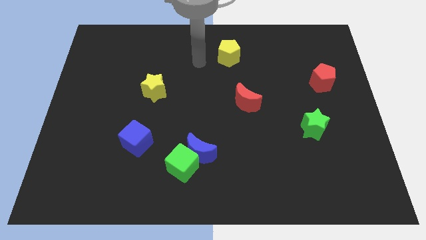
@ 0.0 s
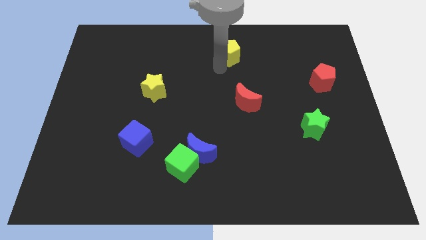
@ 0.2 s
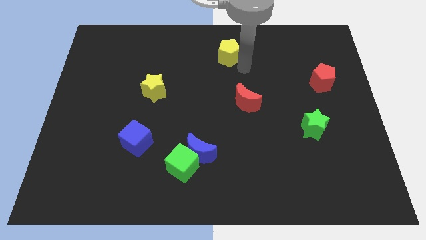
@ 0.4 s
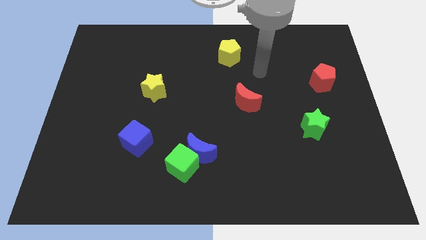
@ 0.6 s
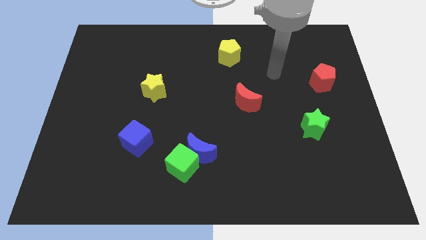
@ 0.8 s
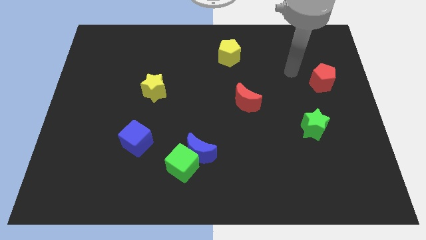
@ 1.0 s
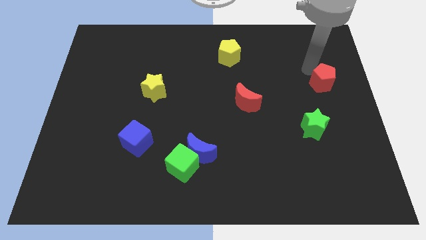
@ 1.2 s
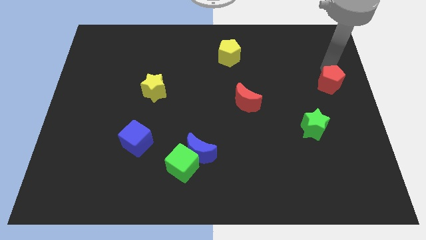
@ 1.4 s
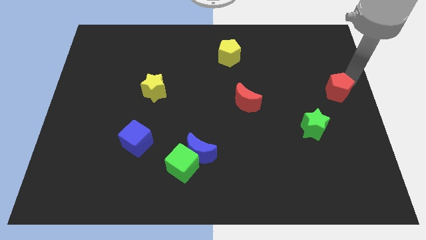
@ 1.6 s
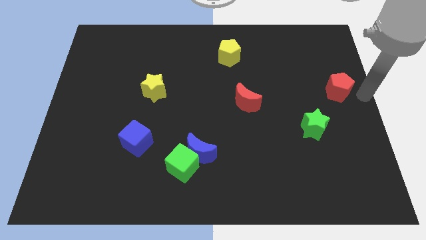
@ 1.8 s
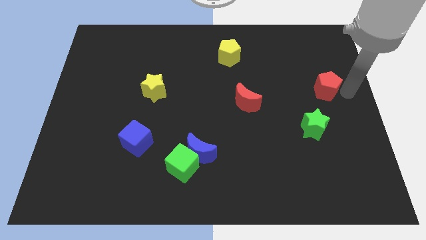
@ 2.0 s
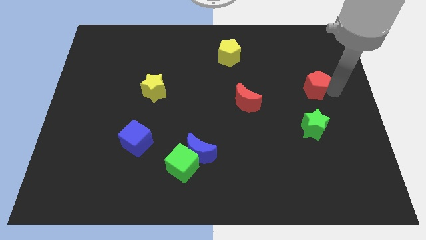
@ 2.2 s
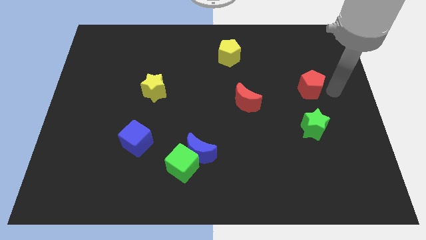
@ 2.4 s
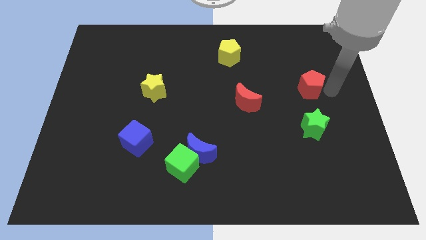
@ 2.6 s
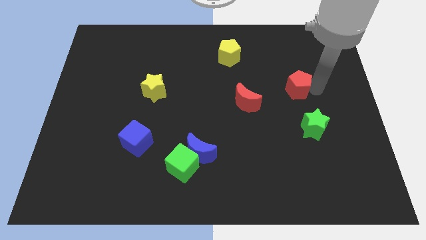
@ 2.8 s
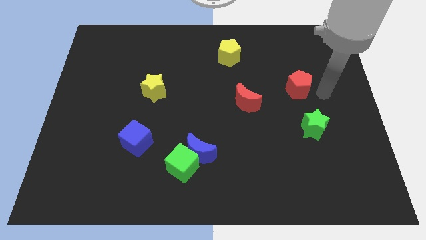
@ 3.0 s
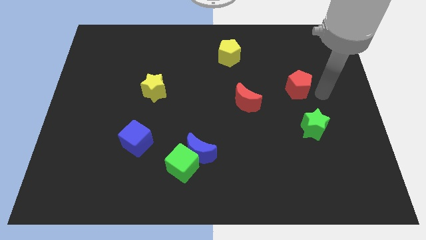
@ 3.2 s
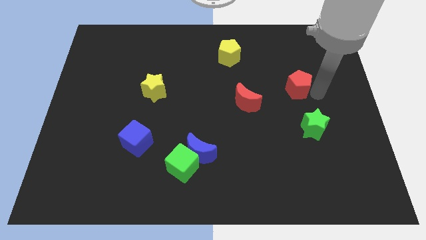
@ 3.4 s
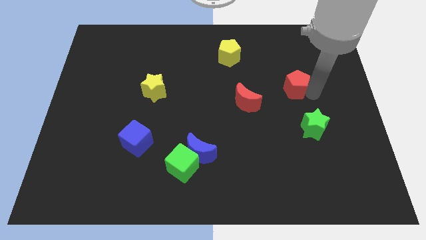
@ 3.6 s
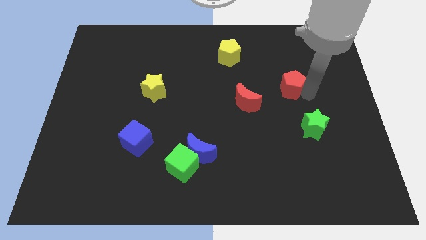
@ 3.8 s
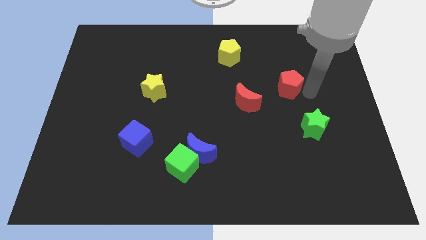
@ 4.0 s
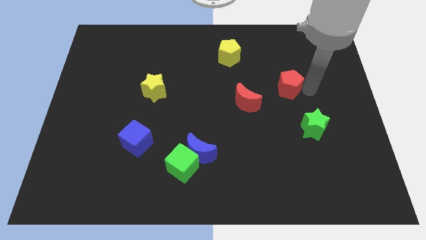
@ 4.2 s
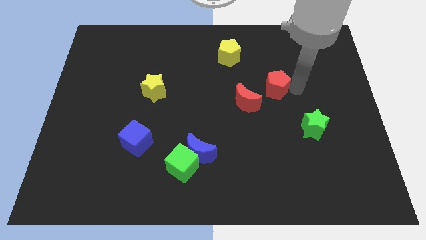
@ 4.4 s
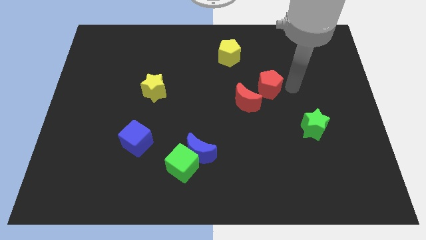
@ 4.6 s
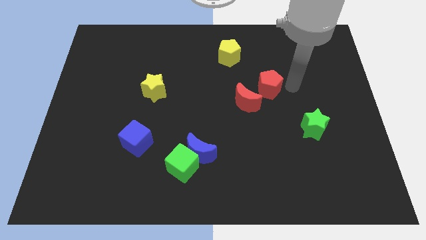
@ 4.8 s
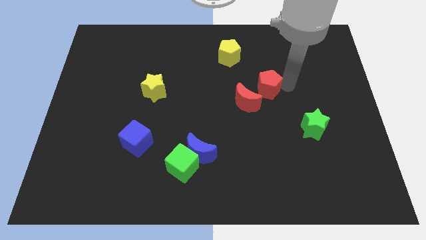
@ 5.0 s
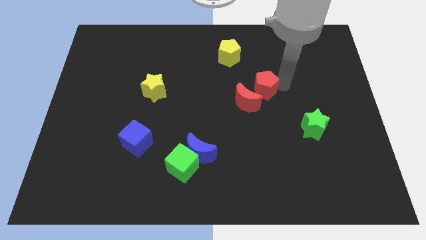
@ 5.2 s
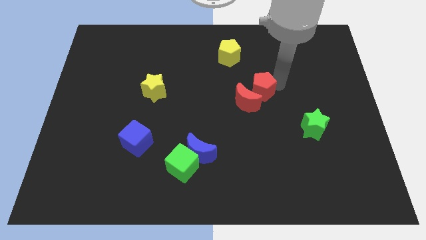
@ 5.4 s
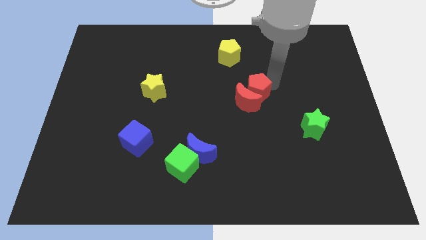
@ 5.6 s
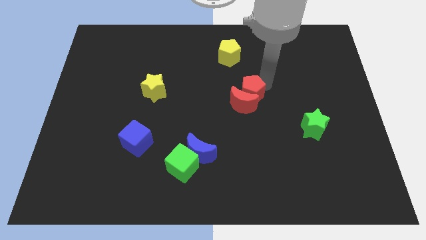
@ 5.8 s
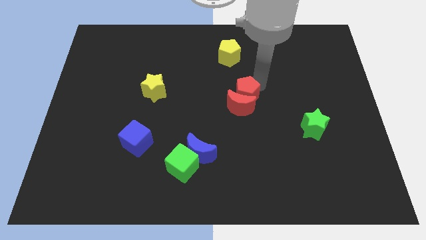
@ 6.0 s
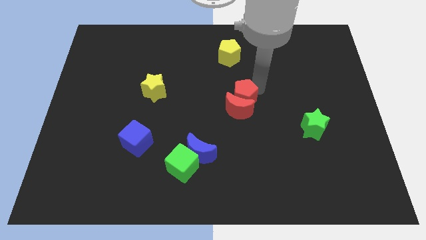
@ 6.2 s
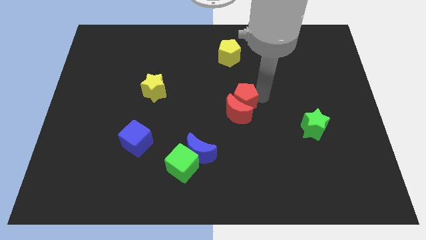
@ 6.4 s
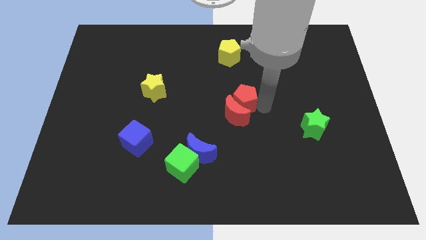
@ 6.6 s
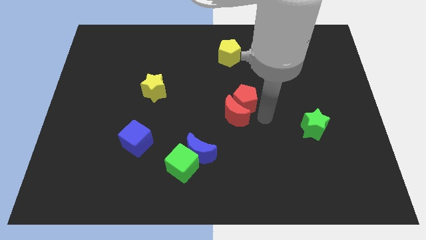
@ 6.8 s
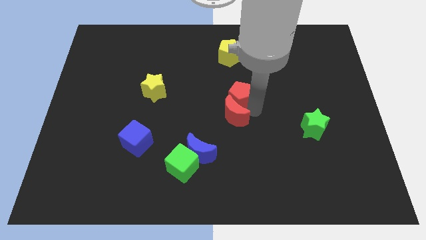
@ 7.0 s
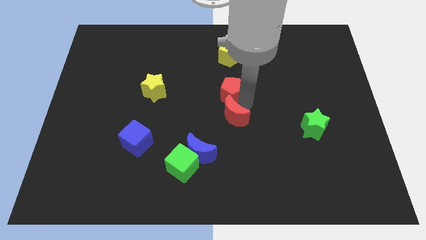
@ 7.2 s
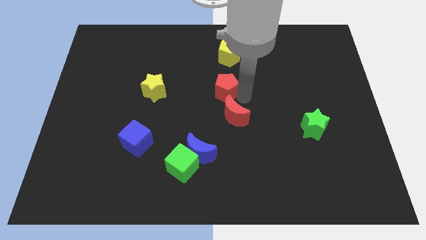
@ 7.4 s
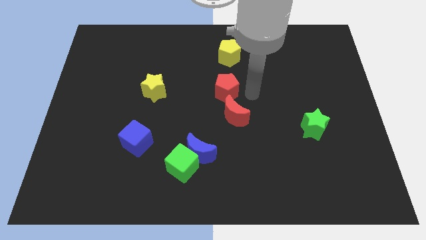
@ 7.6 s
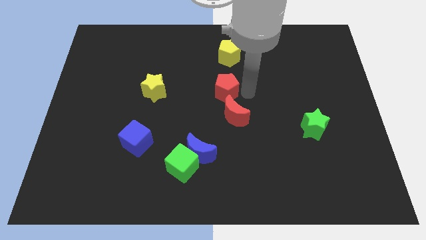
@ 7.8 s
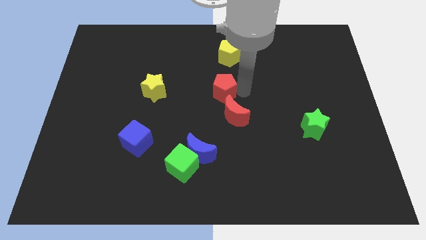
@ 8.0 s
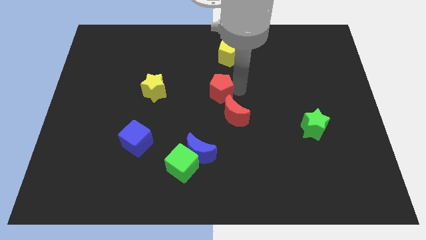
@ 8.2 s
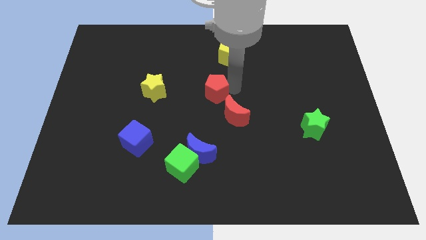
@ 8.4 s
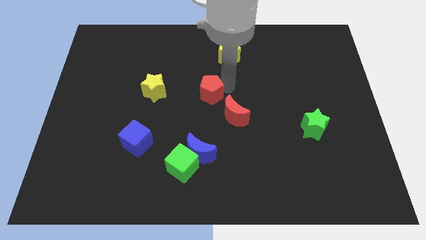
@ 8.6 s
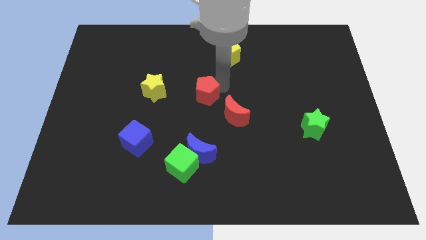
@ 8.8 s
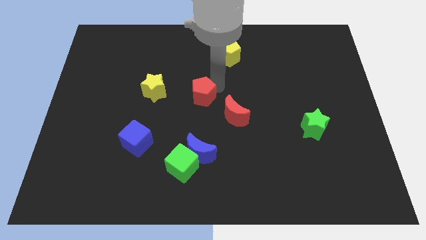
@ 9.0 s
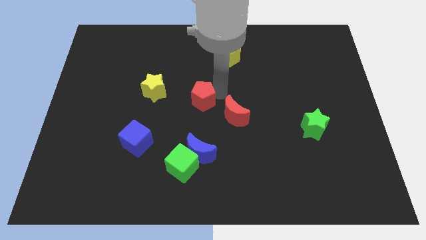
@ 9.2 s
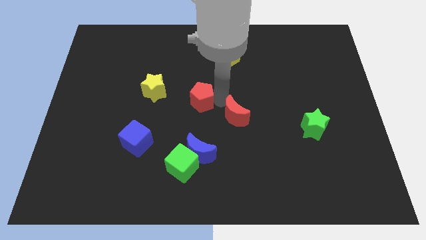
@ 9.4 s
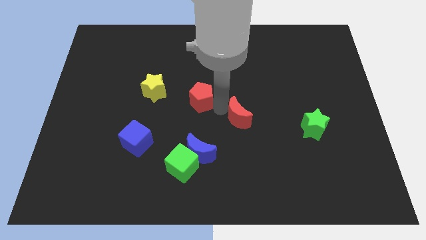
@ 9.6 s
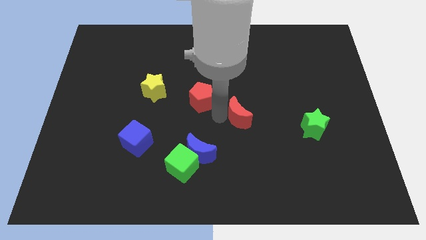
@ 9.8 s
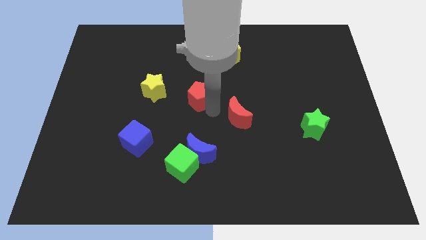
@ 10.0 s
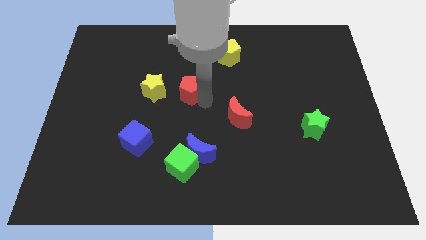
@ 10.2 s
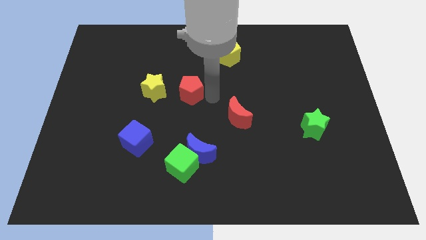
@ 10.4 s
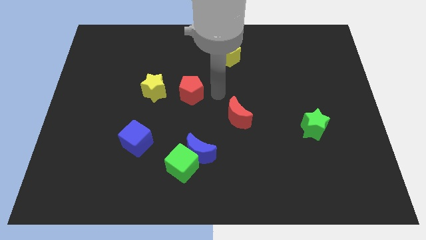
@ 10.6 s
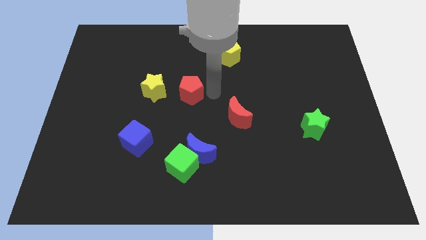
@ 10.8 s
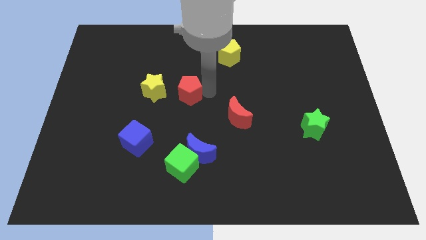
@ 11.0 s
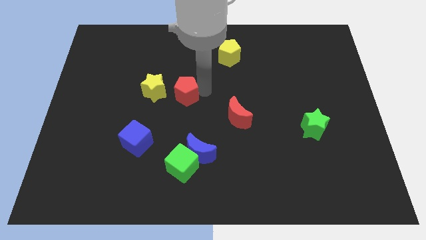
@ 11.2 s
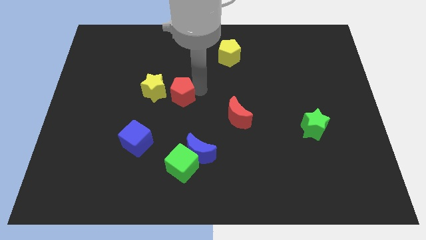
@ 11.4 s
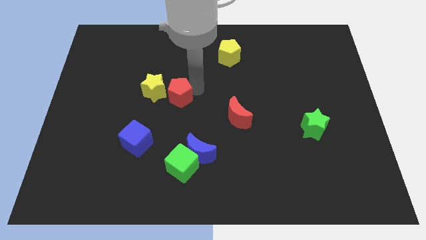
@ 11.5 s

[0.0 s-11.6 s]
put the red pentagon to the yellow star

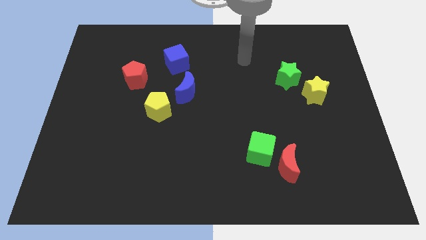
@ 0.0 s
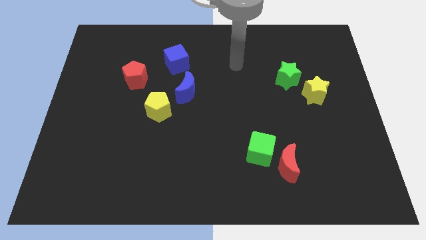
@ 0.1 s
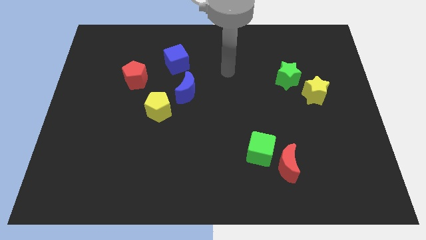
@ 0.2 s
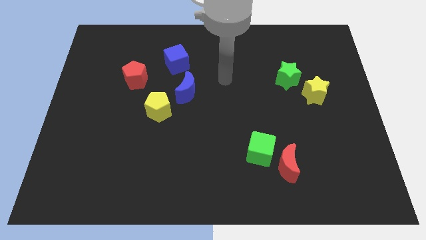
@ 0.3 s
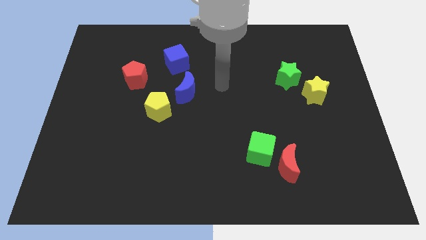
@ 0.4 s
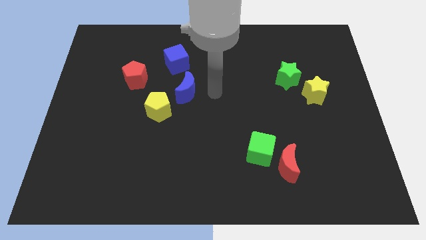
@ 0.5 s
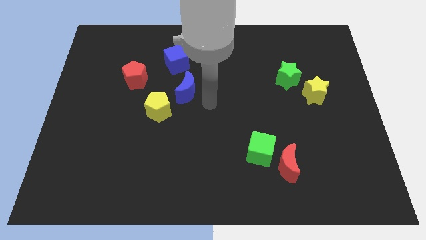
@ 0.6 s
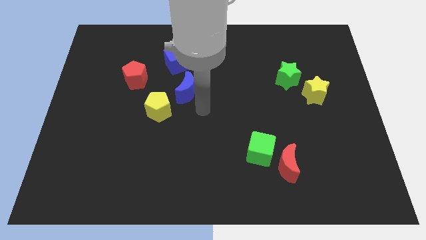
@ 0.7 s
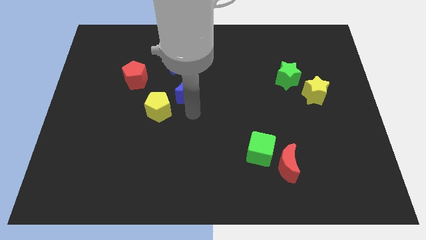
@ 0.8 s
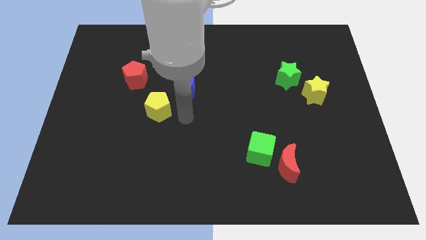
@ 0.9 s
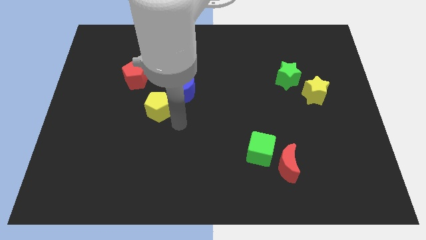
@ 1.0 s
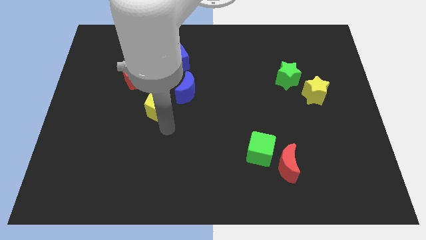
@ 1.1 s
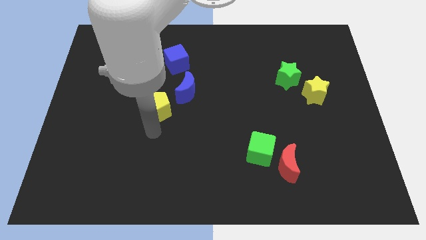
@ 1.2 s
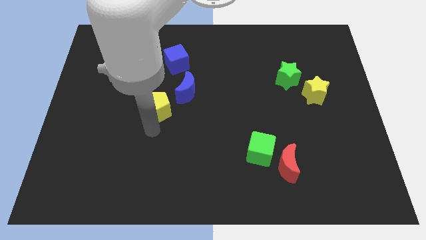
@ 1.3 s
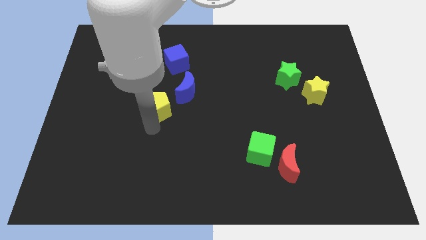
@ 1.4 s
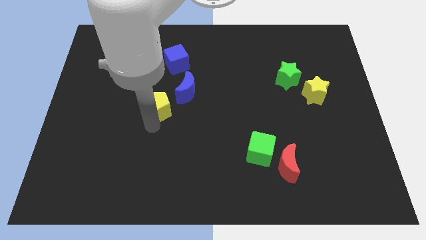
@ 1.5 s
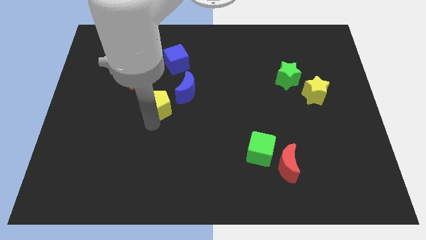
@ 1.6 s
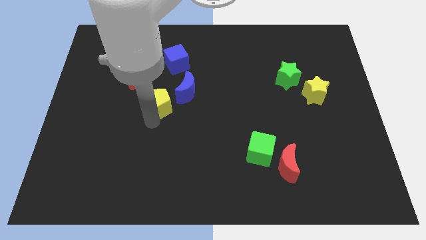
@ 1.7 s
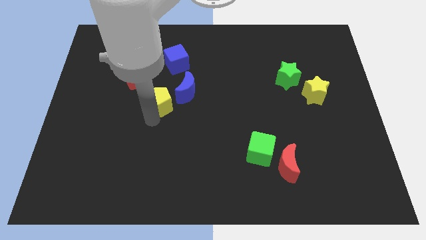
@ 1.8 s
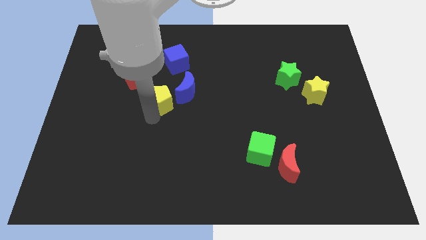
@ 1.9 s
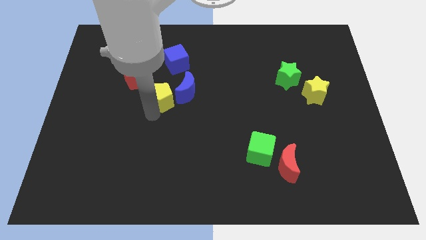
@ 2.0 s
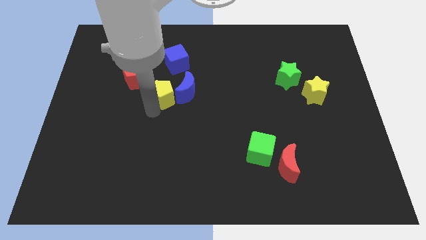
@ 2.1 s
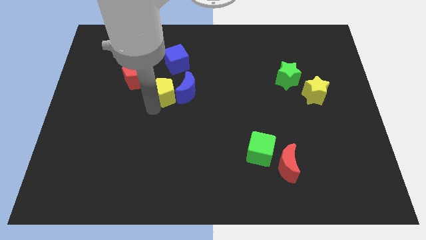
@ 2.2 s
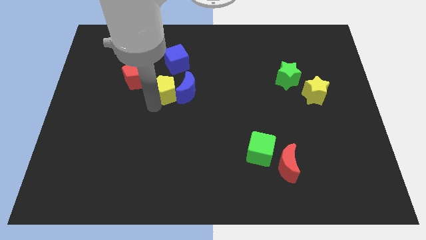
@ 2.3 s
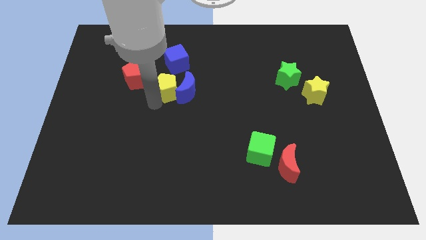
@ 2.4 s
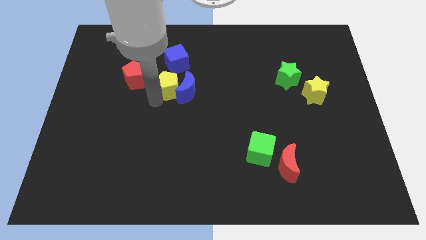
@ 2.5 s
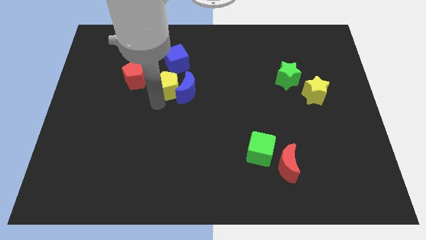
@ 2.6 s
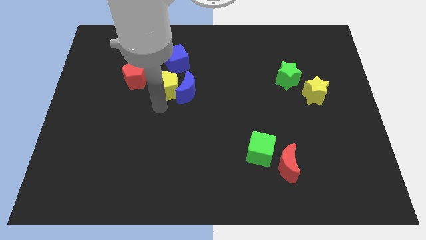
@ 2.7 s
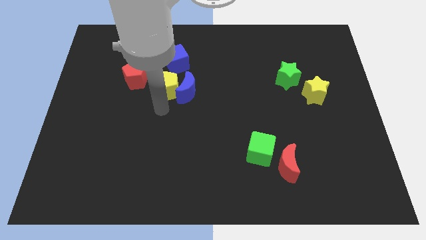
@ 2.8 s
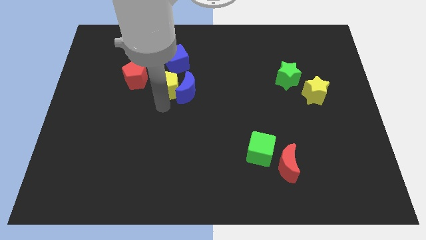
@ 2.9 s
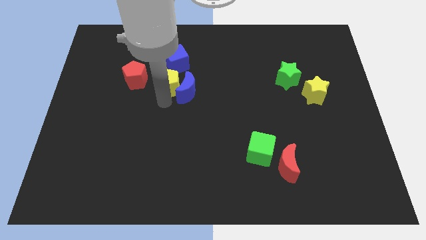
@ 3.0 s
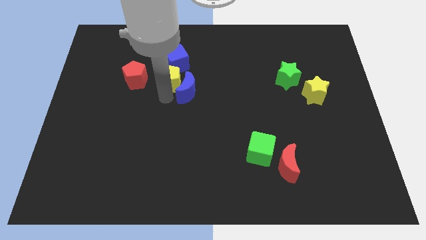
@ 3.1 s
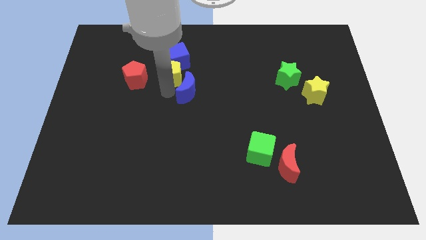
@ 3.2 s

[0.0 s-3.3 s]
push the yellow pentagon close to the blue cube
